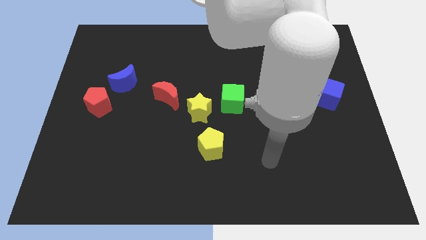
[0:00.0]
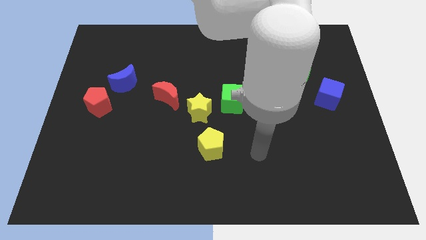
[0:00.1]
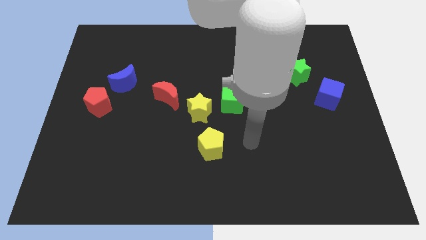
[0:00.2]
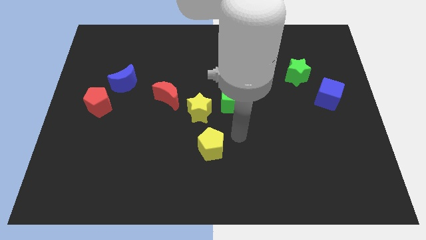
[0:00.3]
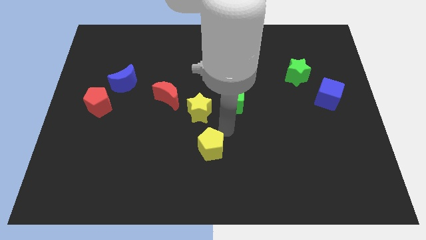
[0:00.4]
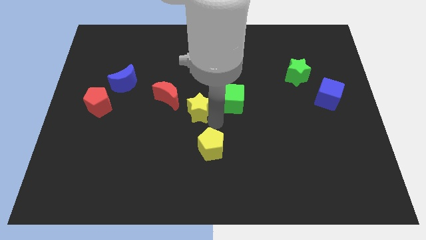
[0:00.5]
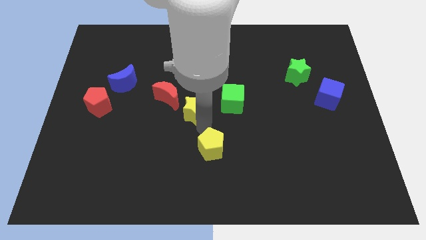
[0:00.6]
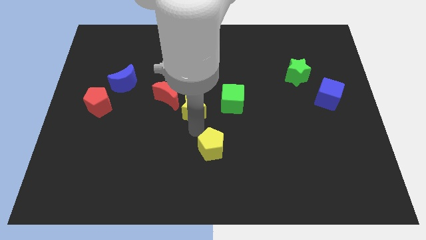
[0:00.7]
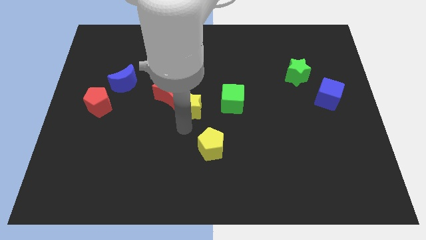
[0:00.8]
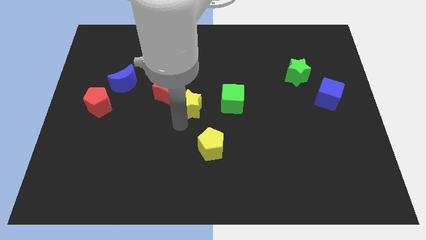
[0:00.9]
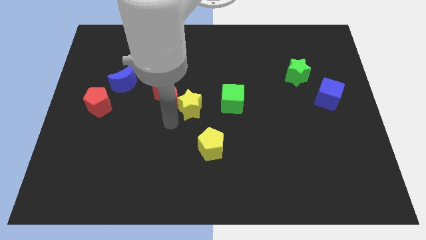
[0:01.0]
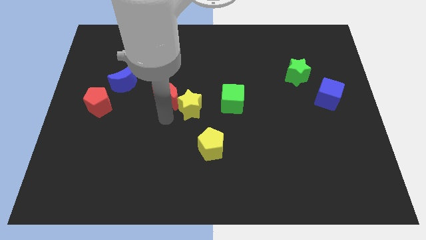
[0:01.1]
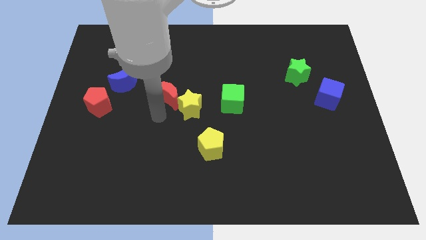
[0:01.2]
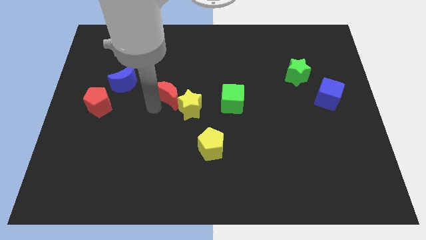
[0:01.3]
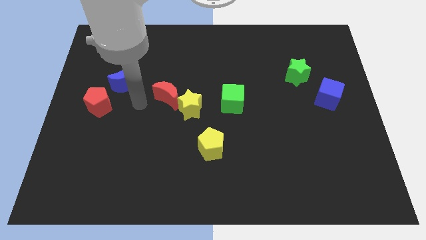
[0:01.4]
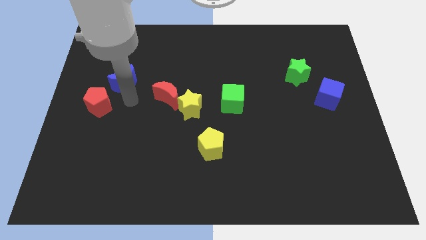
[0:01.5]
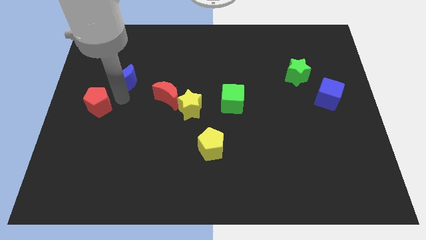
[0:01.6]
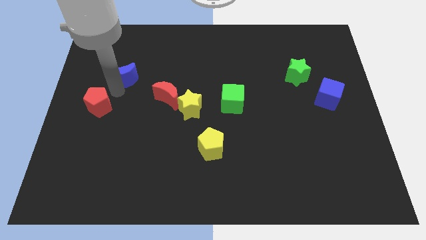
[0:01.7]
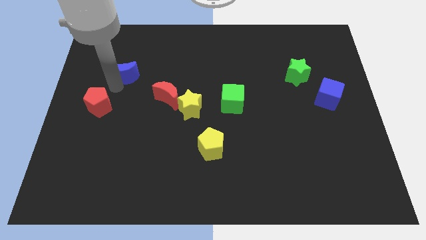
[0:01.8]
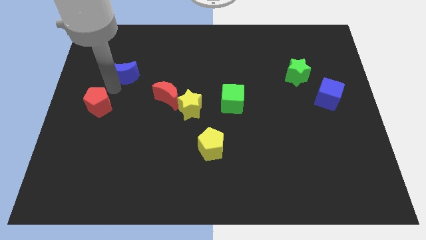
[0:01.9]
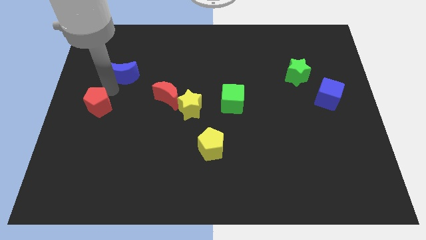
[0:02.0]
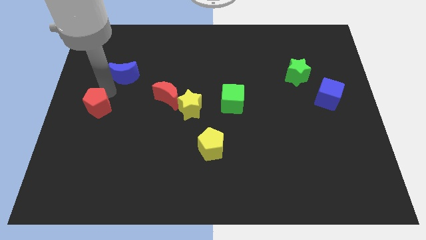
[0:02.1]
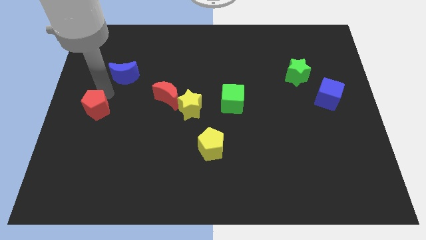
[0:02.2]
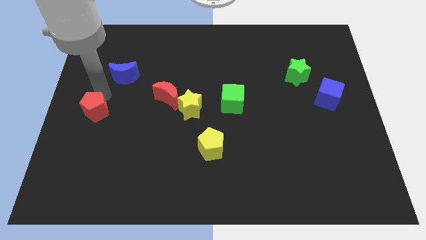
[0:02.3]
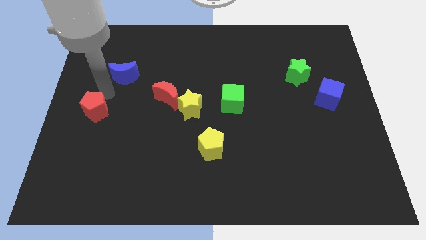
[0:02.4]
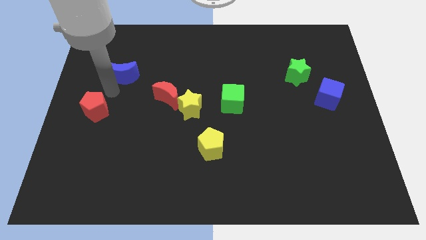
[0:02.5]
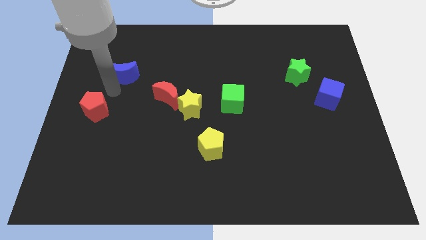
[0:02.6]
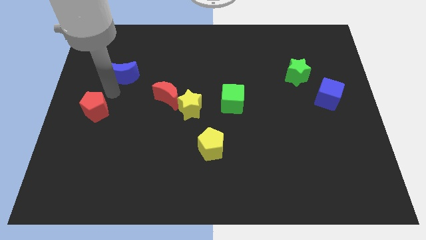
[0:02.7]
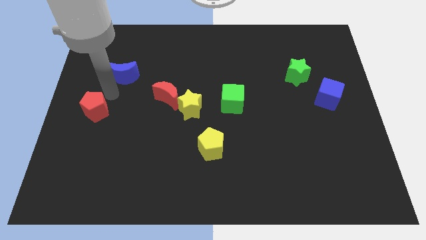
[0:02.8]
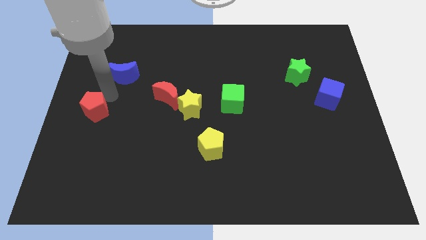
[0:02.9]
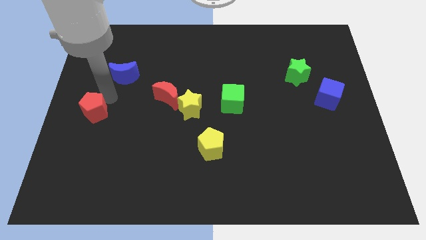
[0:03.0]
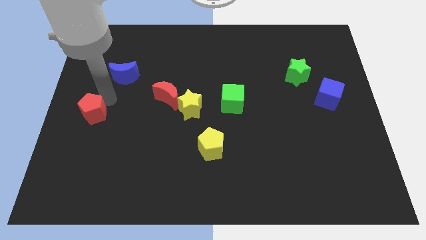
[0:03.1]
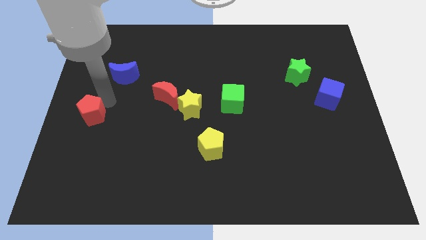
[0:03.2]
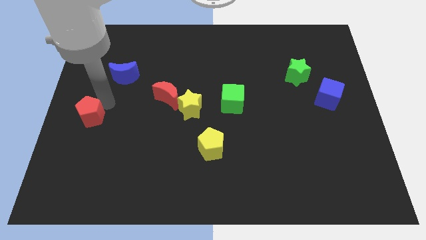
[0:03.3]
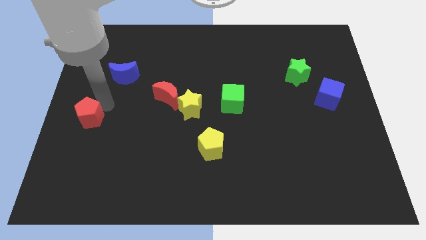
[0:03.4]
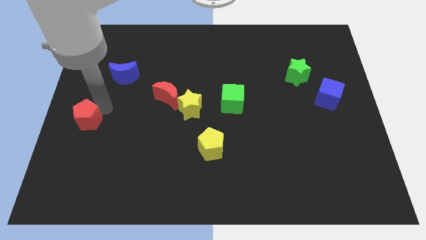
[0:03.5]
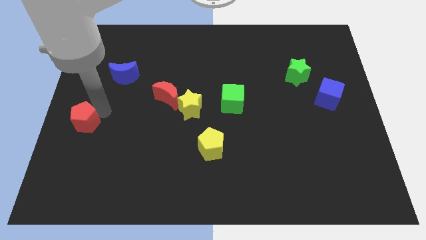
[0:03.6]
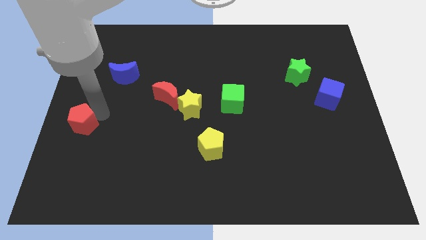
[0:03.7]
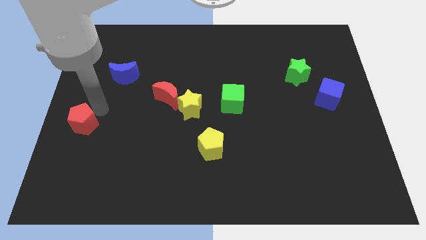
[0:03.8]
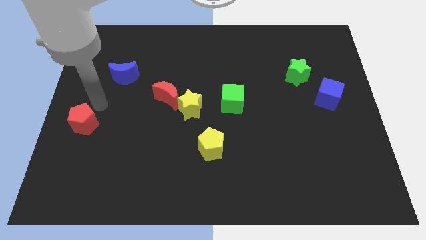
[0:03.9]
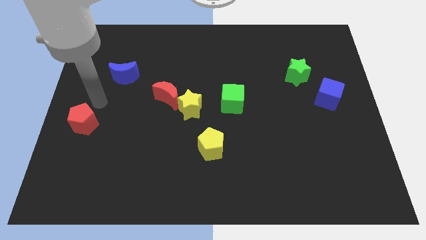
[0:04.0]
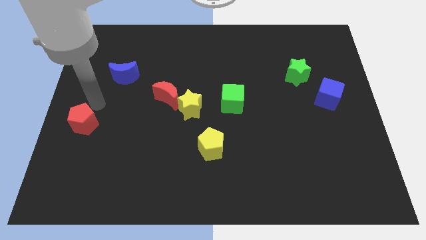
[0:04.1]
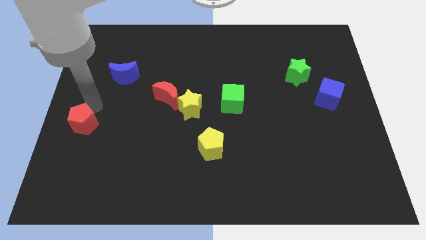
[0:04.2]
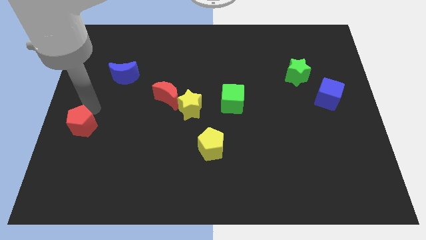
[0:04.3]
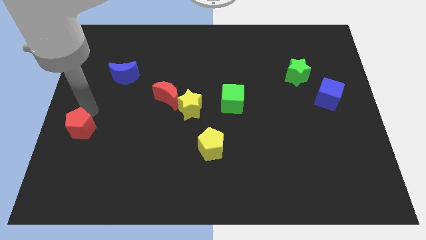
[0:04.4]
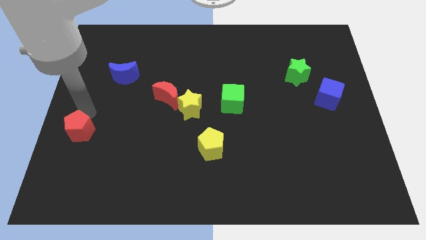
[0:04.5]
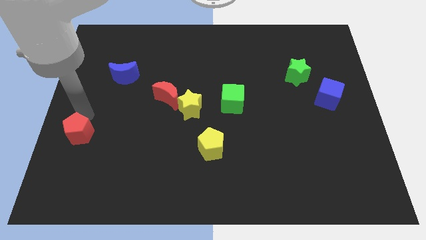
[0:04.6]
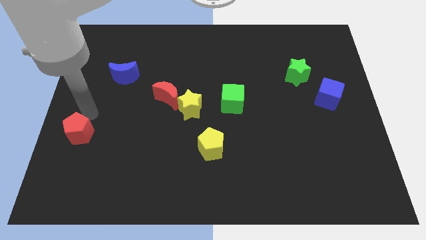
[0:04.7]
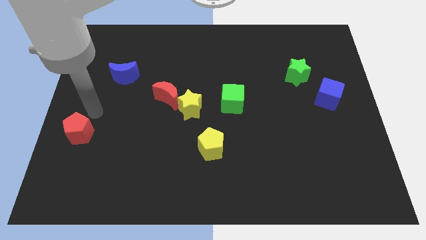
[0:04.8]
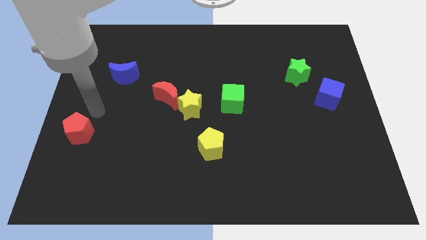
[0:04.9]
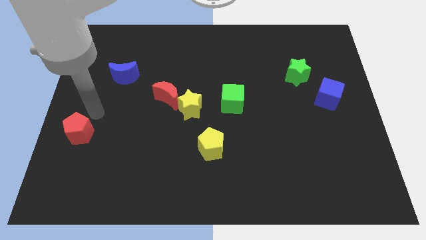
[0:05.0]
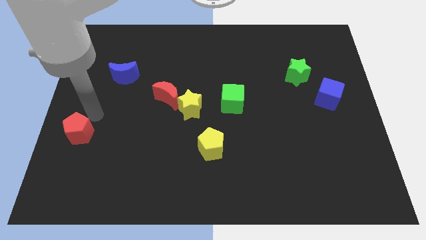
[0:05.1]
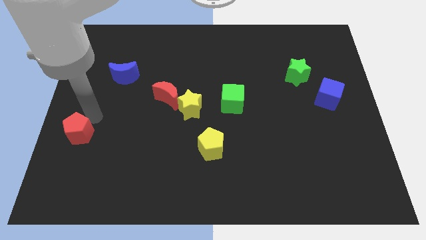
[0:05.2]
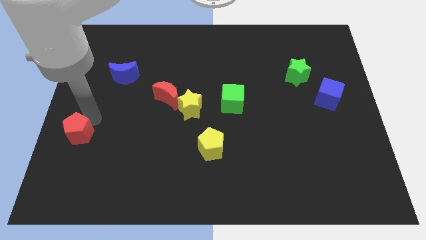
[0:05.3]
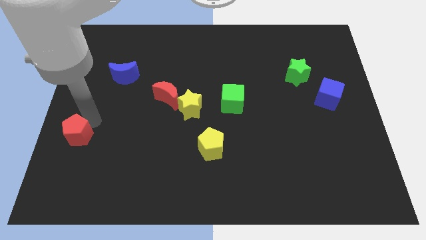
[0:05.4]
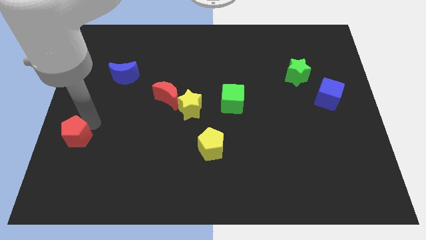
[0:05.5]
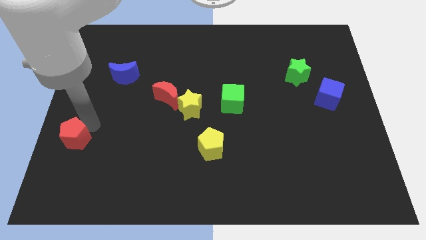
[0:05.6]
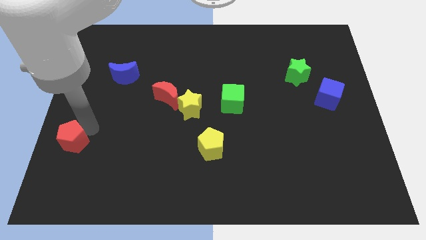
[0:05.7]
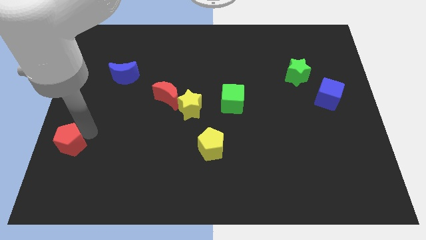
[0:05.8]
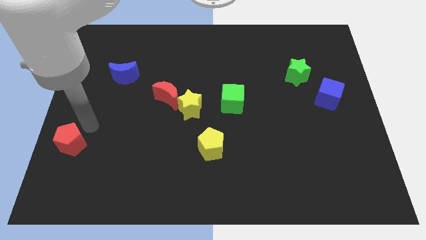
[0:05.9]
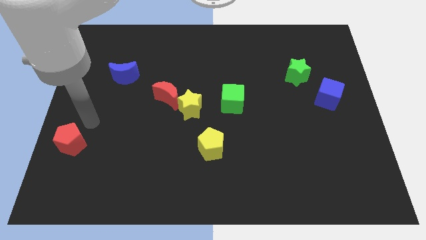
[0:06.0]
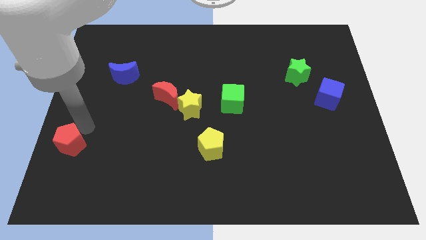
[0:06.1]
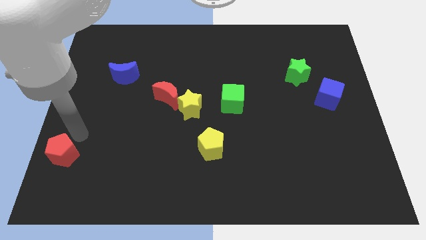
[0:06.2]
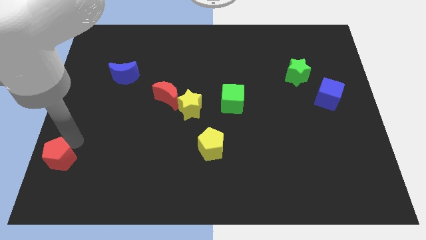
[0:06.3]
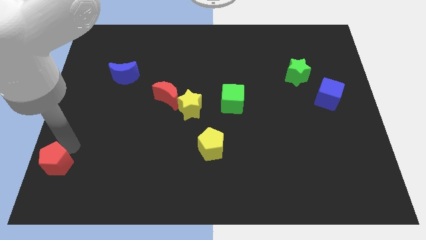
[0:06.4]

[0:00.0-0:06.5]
put the red pentagon to the bottom left corner
